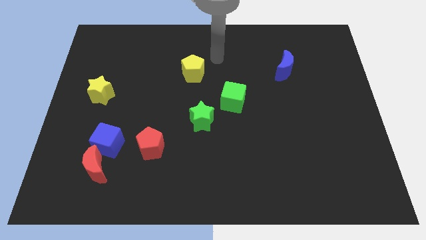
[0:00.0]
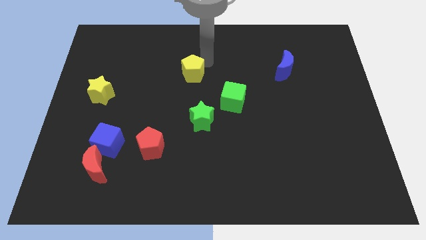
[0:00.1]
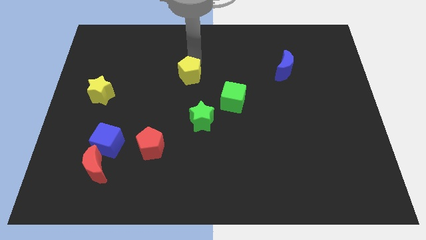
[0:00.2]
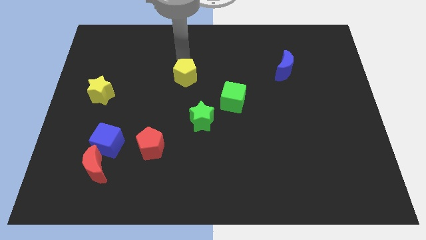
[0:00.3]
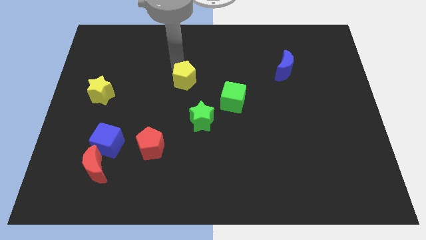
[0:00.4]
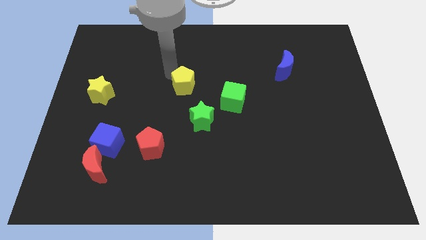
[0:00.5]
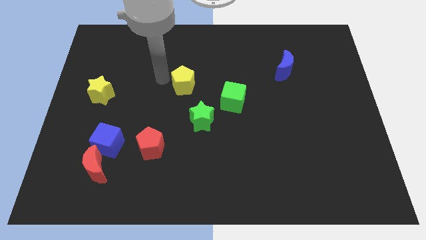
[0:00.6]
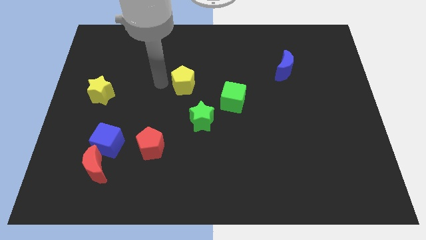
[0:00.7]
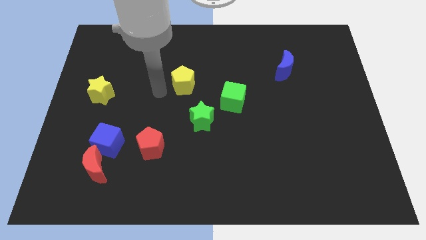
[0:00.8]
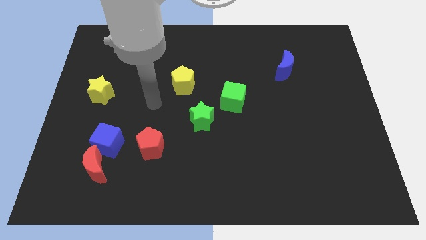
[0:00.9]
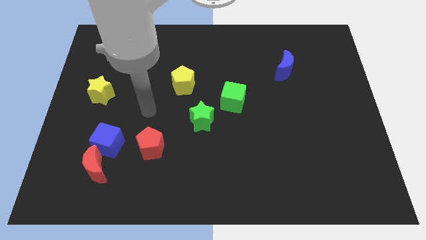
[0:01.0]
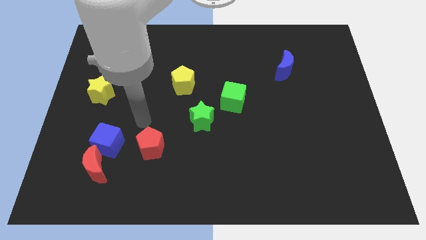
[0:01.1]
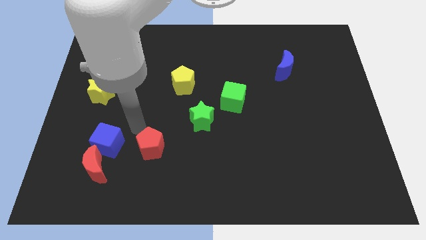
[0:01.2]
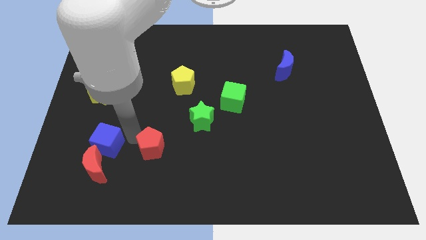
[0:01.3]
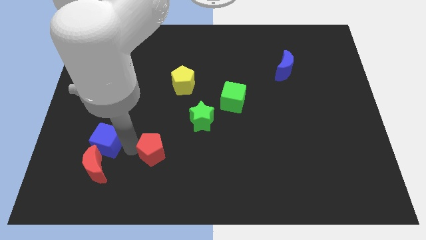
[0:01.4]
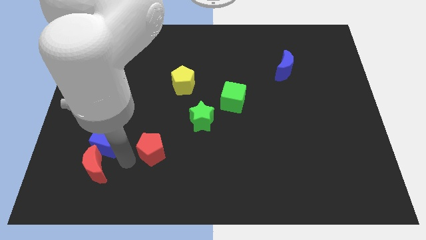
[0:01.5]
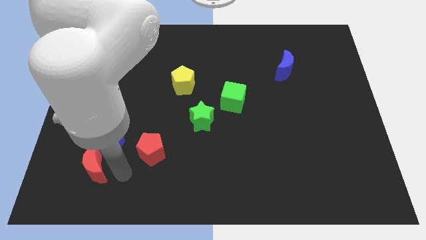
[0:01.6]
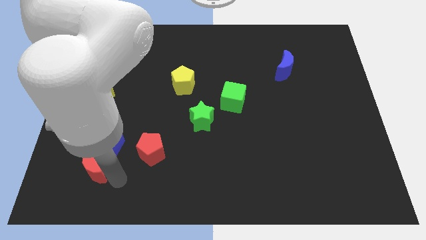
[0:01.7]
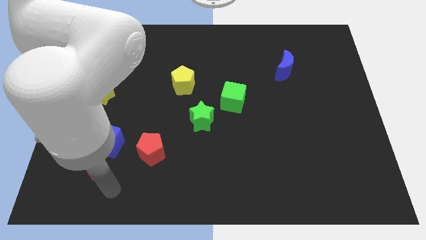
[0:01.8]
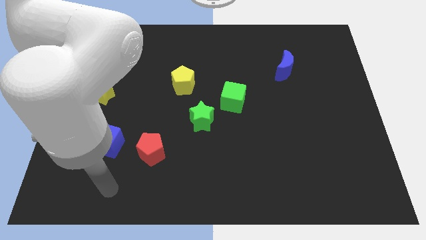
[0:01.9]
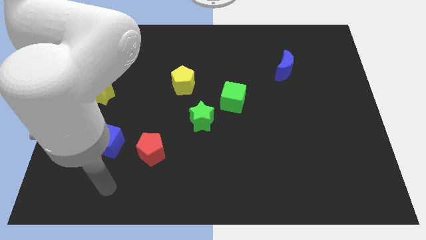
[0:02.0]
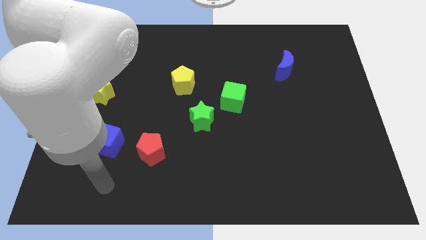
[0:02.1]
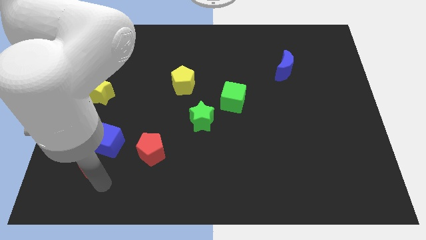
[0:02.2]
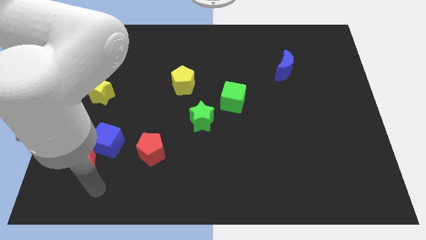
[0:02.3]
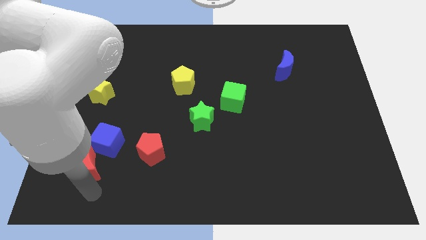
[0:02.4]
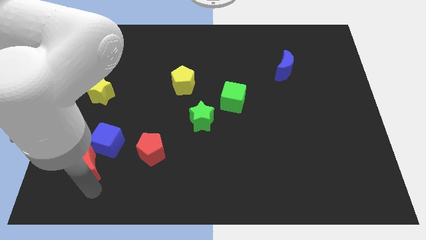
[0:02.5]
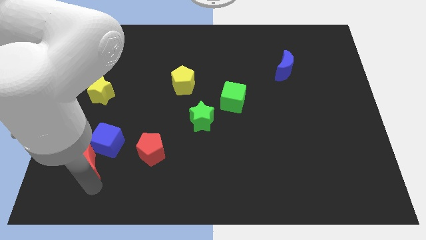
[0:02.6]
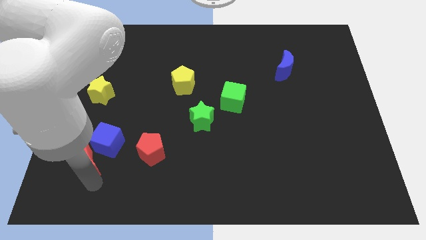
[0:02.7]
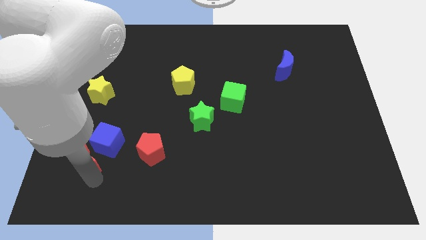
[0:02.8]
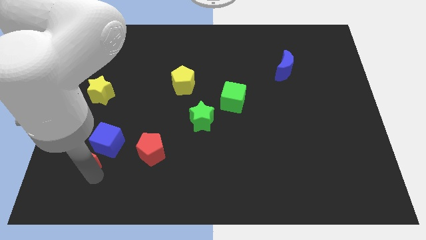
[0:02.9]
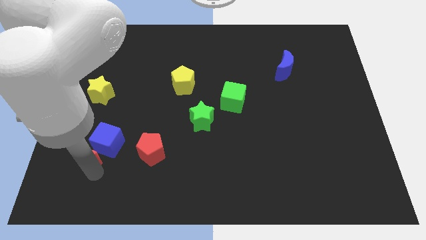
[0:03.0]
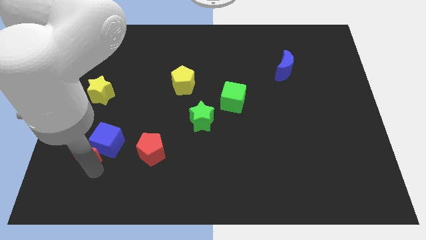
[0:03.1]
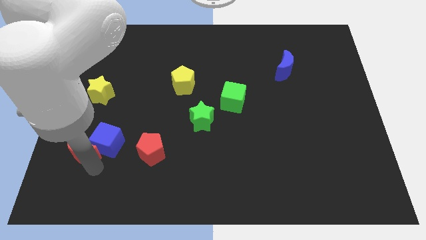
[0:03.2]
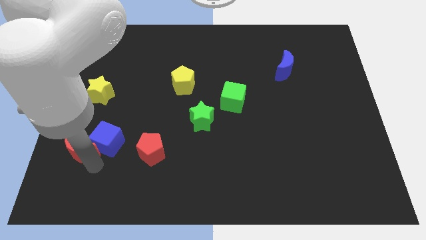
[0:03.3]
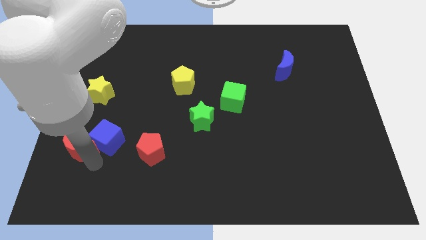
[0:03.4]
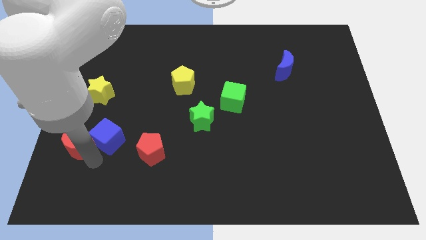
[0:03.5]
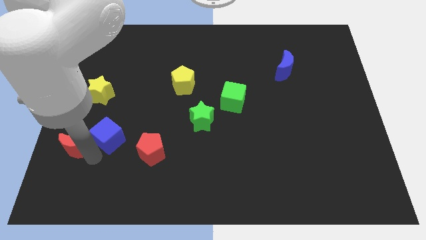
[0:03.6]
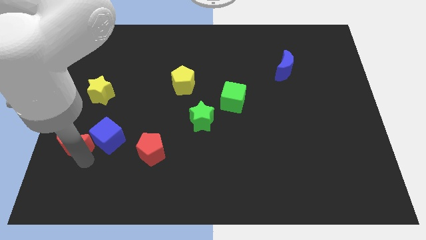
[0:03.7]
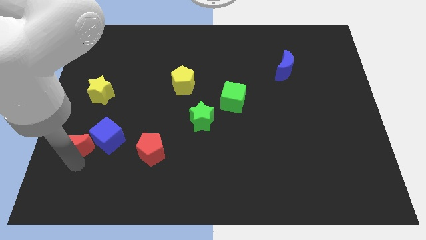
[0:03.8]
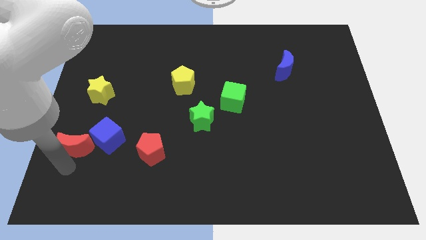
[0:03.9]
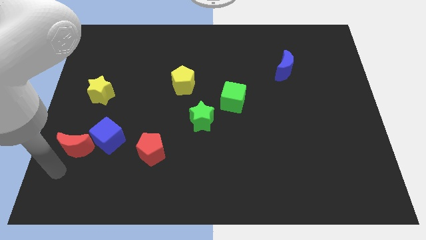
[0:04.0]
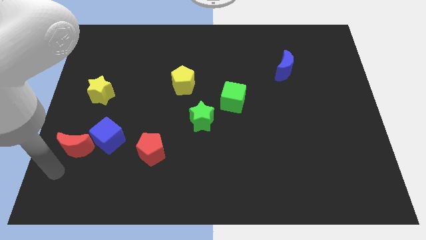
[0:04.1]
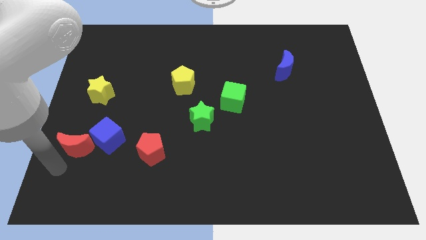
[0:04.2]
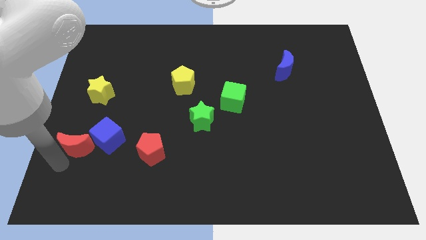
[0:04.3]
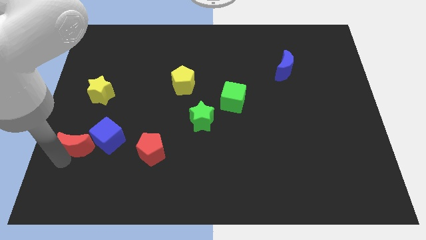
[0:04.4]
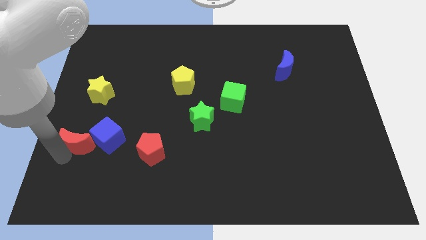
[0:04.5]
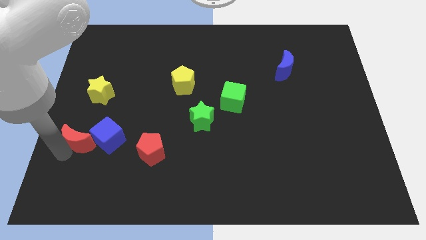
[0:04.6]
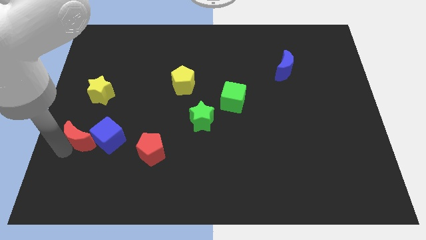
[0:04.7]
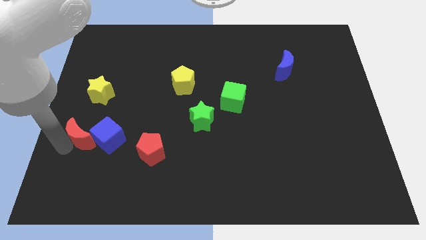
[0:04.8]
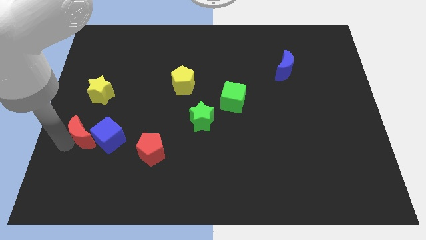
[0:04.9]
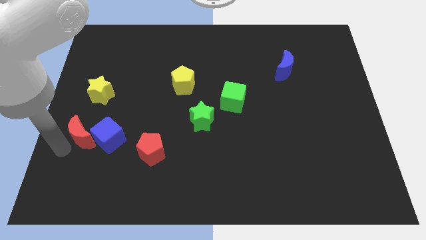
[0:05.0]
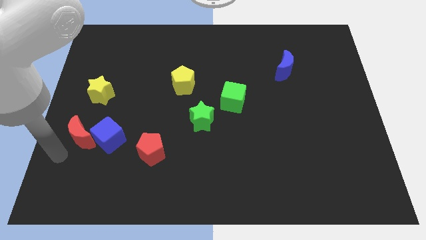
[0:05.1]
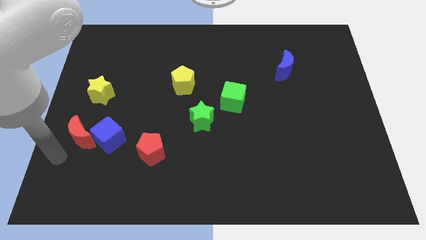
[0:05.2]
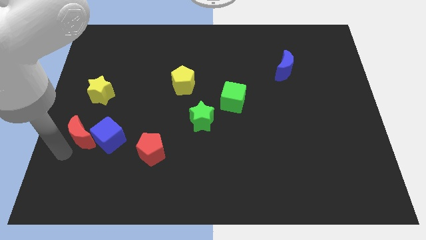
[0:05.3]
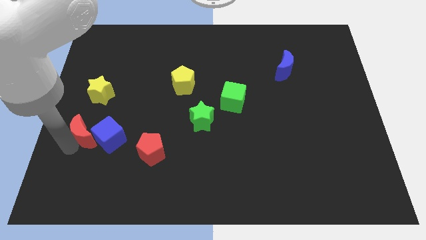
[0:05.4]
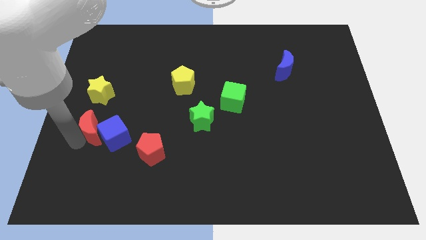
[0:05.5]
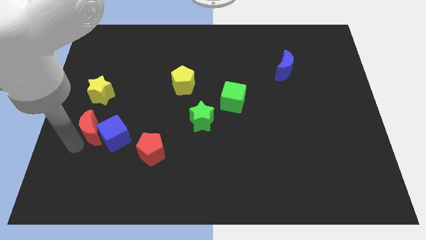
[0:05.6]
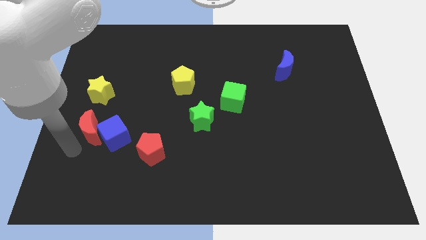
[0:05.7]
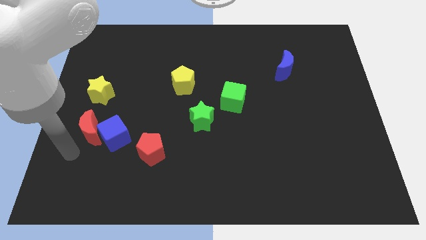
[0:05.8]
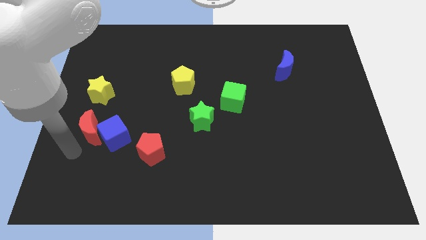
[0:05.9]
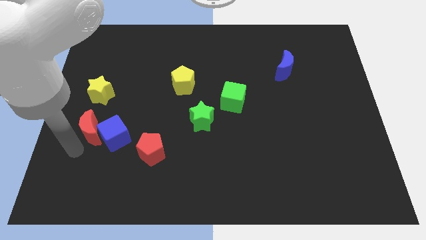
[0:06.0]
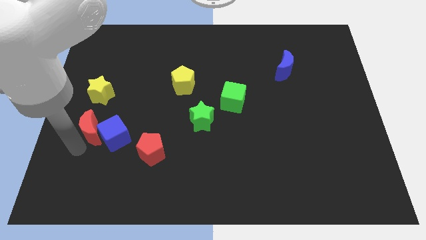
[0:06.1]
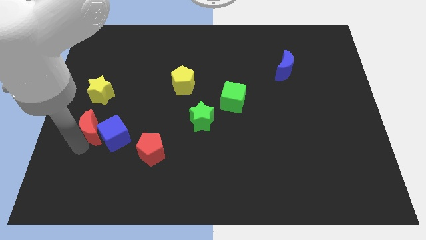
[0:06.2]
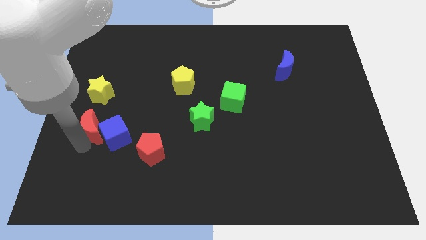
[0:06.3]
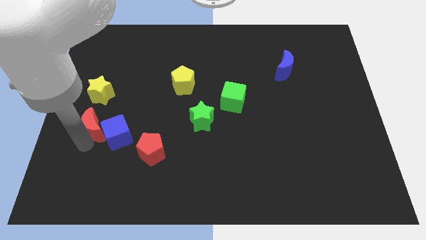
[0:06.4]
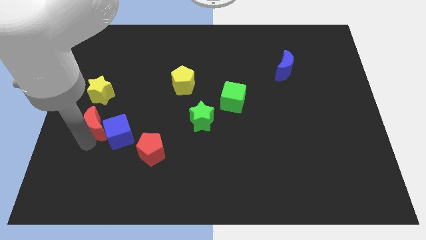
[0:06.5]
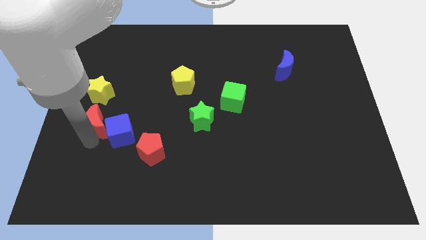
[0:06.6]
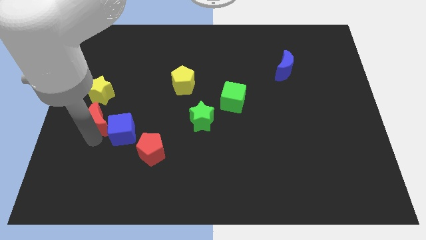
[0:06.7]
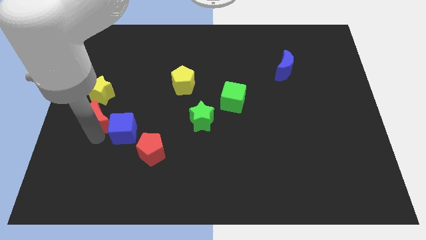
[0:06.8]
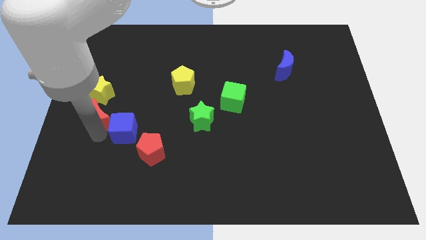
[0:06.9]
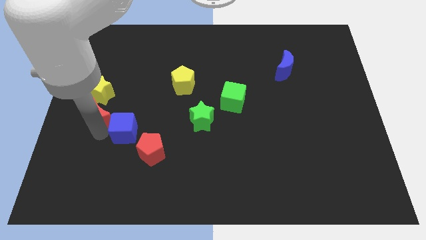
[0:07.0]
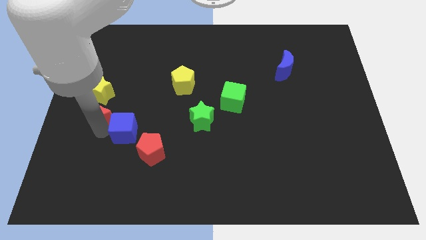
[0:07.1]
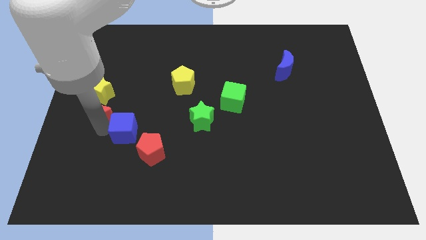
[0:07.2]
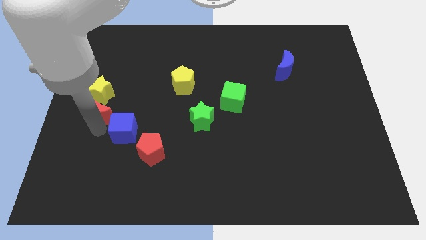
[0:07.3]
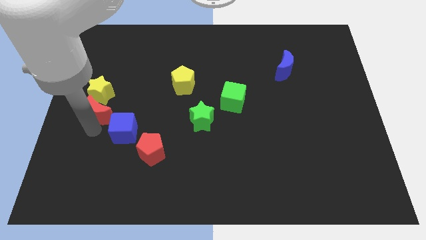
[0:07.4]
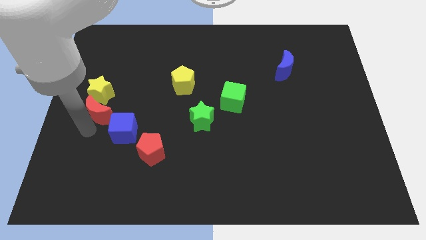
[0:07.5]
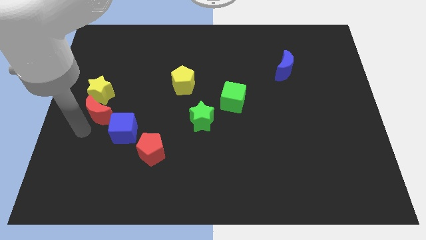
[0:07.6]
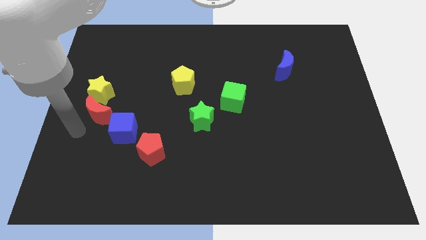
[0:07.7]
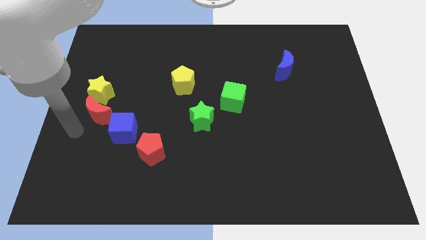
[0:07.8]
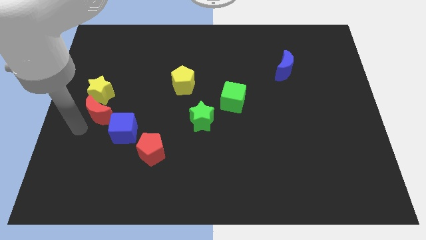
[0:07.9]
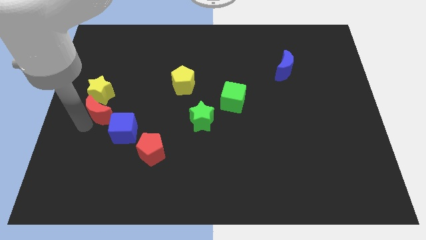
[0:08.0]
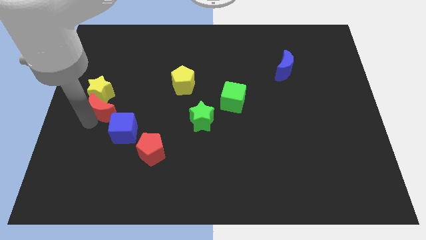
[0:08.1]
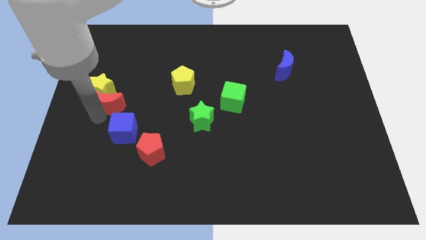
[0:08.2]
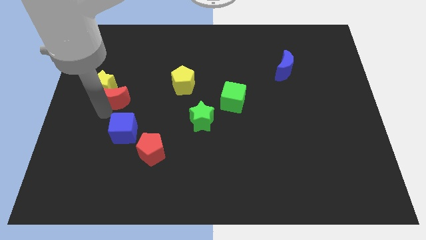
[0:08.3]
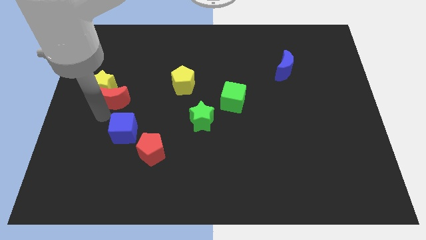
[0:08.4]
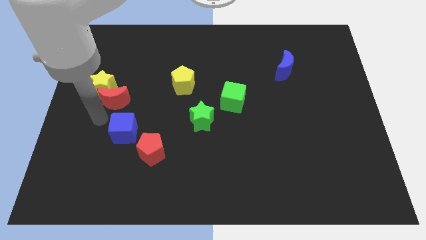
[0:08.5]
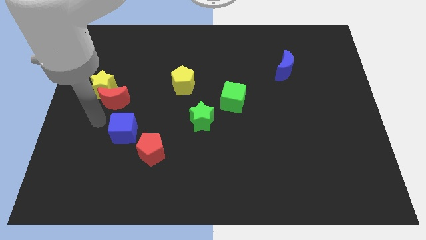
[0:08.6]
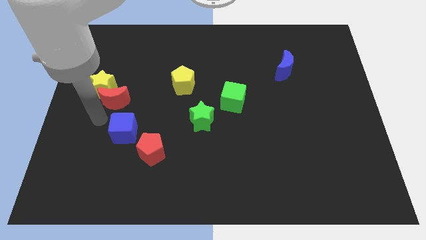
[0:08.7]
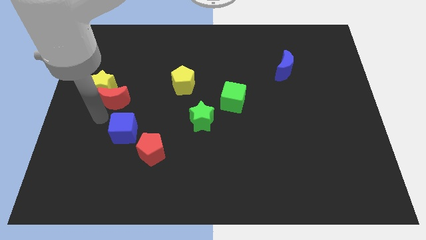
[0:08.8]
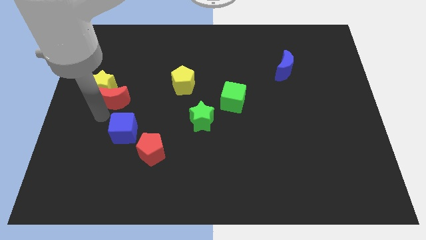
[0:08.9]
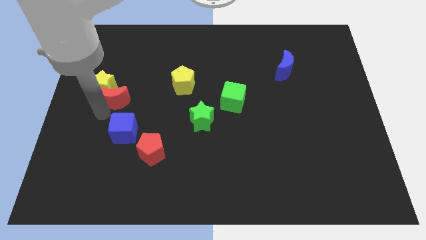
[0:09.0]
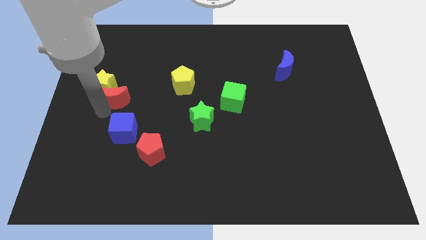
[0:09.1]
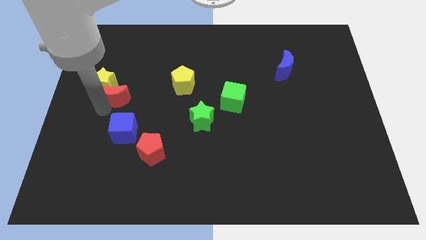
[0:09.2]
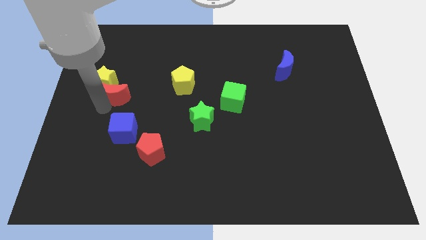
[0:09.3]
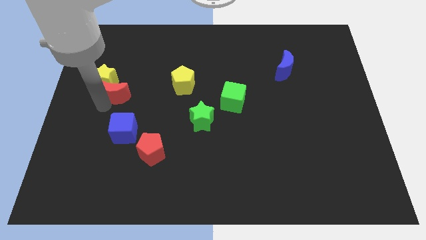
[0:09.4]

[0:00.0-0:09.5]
push the red moon upwards
